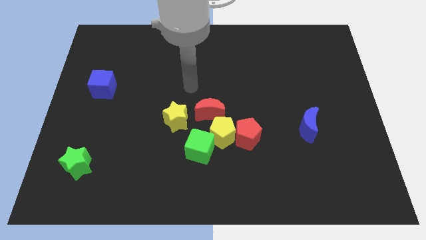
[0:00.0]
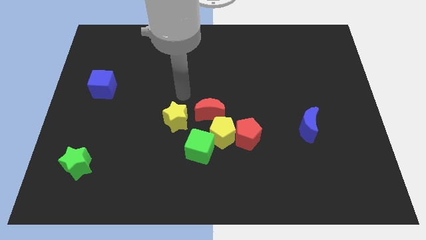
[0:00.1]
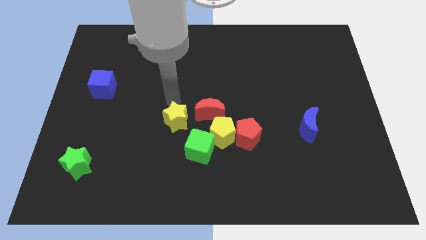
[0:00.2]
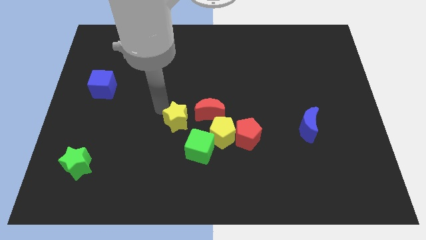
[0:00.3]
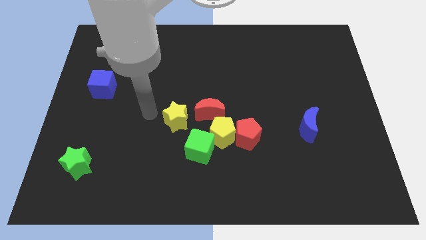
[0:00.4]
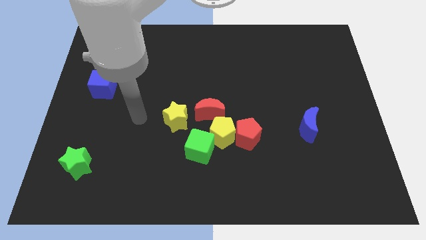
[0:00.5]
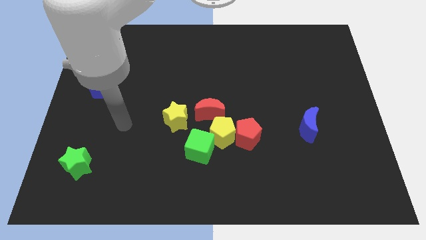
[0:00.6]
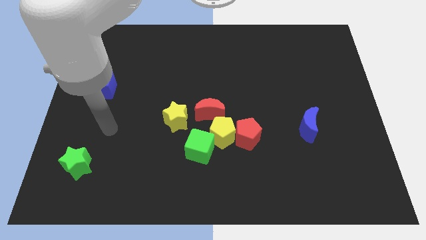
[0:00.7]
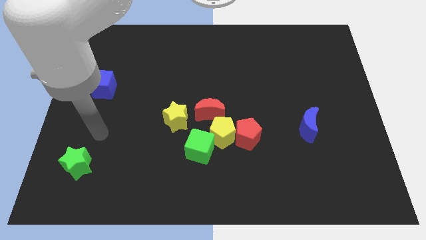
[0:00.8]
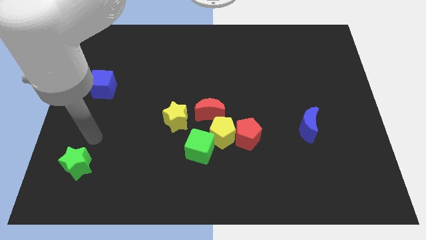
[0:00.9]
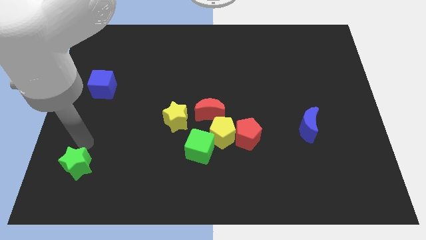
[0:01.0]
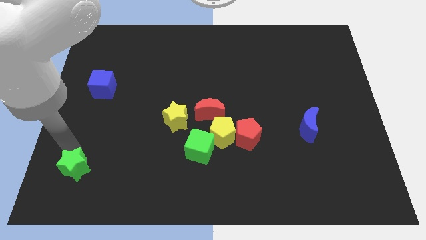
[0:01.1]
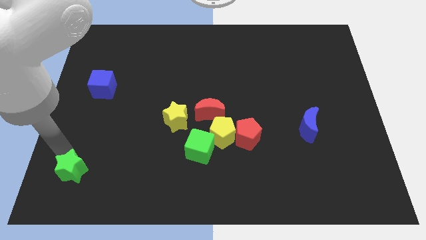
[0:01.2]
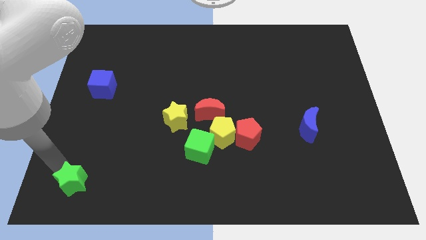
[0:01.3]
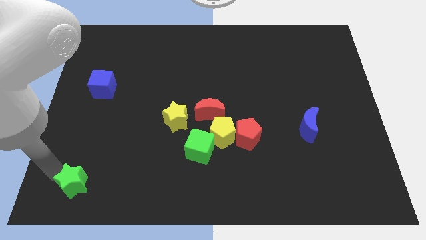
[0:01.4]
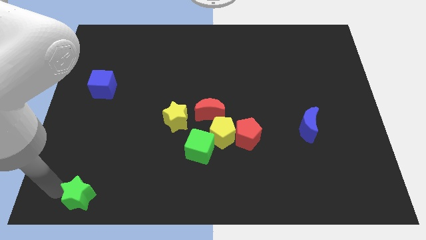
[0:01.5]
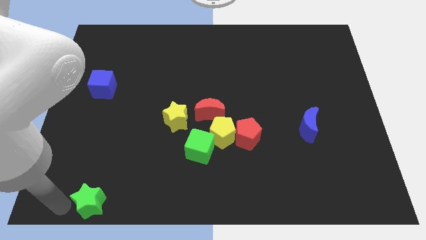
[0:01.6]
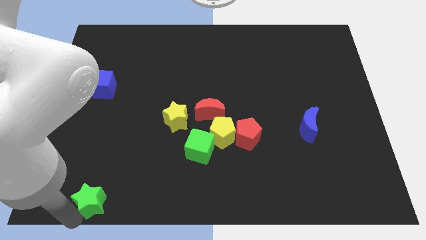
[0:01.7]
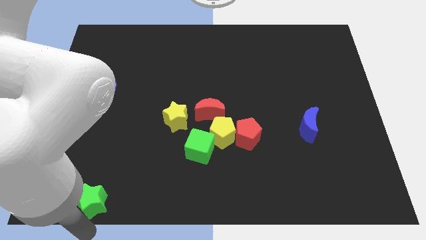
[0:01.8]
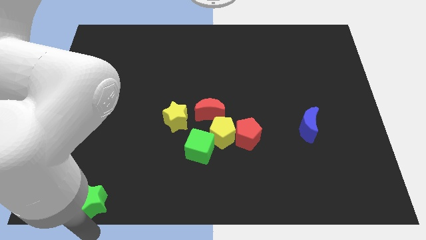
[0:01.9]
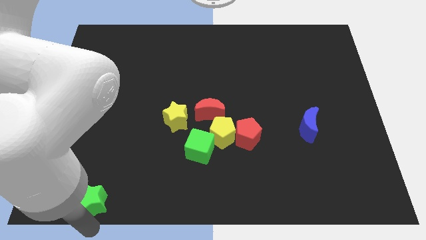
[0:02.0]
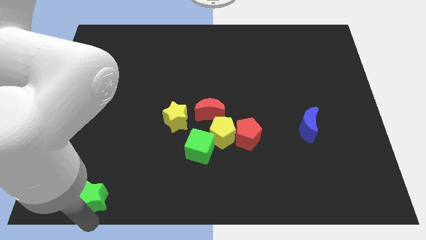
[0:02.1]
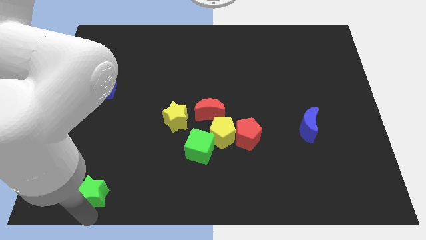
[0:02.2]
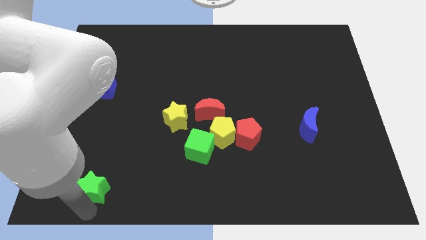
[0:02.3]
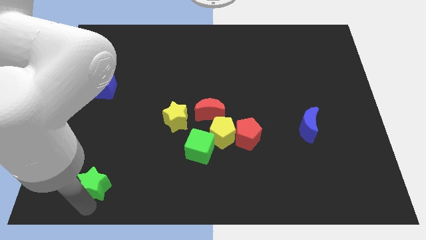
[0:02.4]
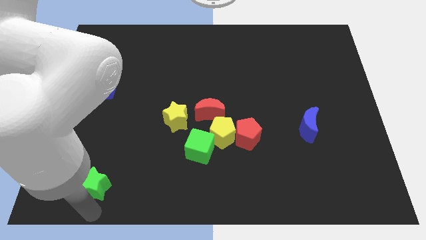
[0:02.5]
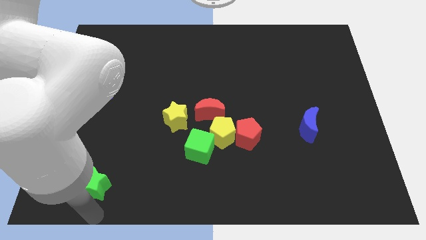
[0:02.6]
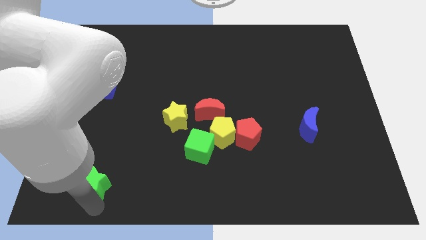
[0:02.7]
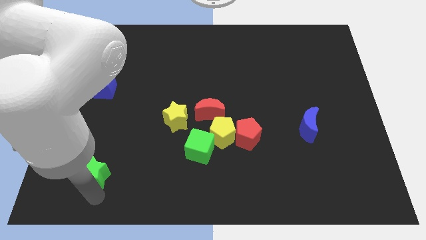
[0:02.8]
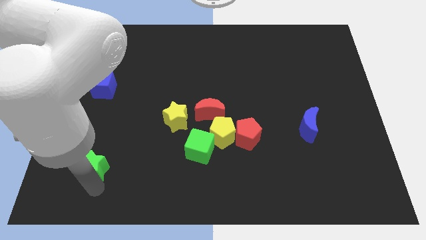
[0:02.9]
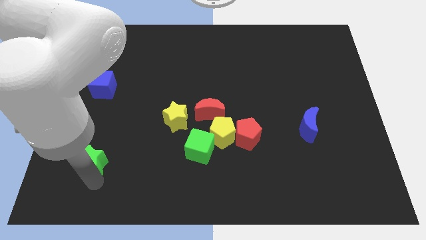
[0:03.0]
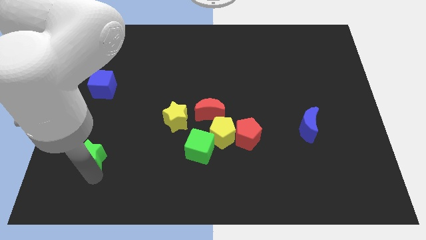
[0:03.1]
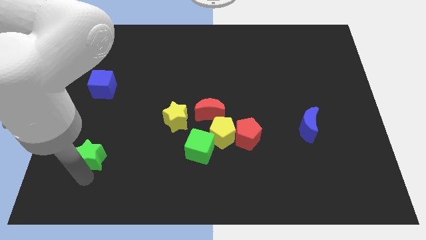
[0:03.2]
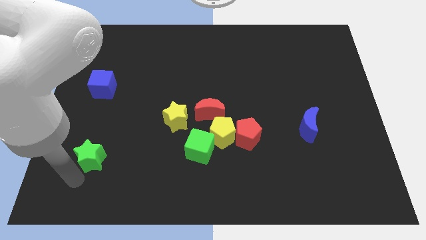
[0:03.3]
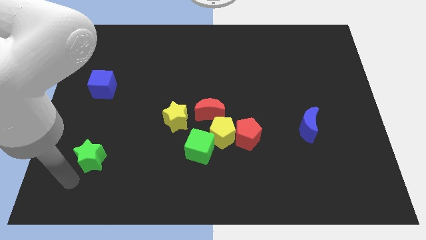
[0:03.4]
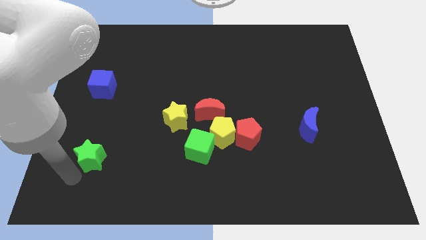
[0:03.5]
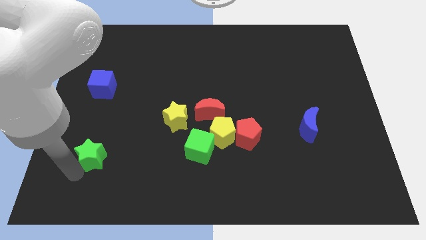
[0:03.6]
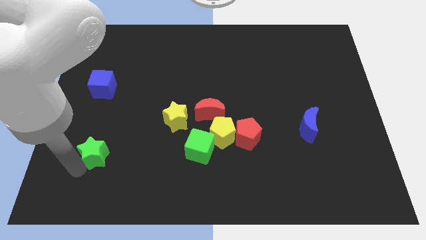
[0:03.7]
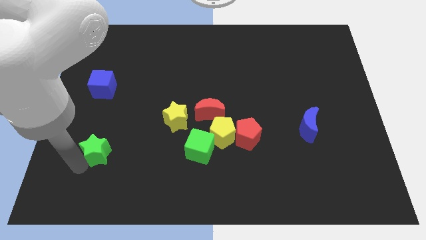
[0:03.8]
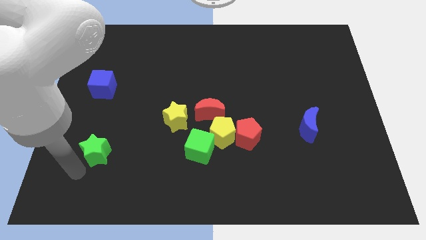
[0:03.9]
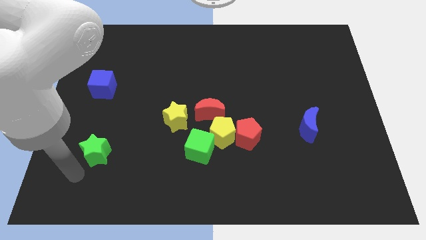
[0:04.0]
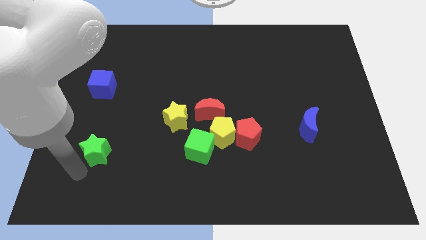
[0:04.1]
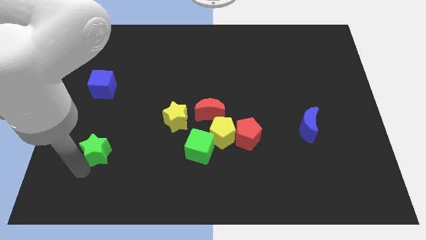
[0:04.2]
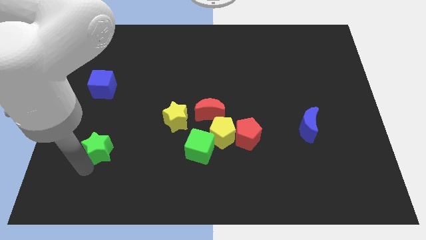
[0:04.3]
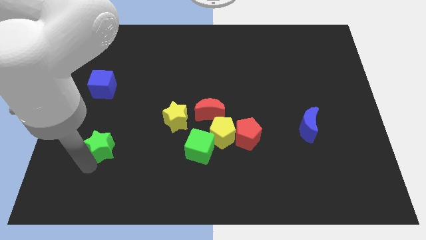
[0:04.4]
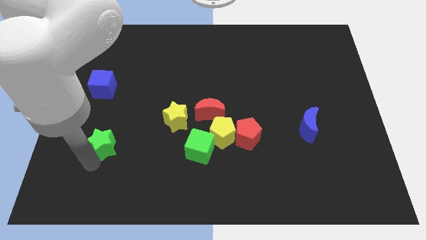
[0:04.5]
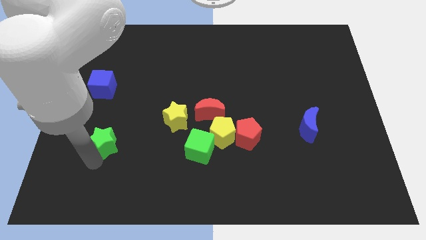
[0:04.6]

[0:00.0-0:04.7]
slightly slide the green star diagonally up and right

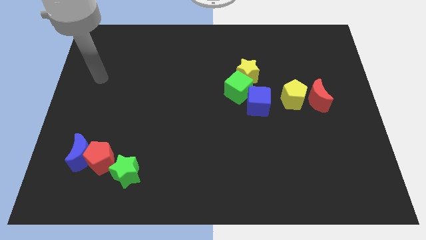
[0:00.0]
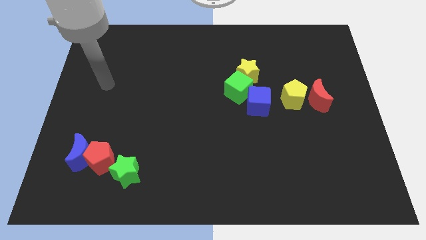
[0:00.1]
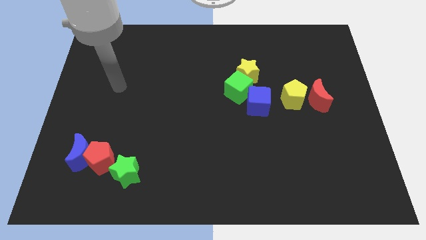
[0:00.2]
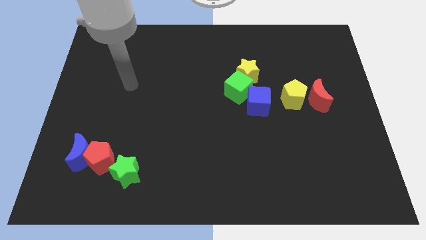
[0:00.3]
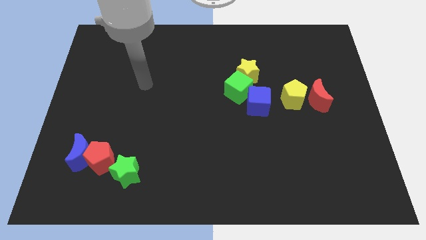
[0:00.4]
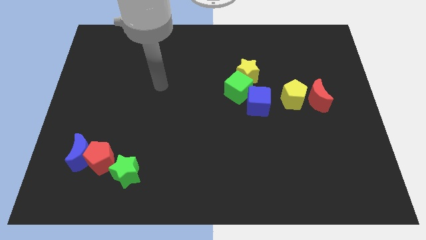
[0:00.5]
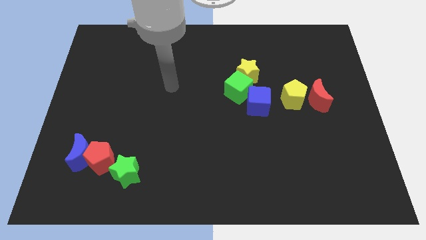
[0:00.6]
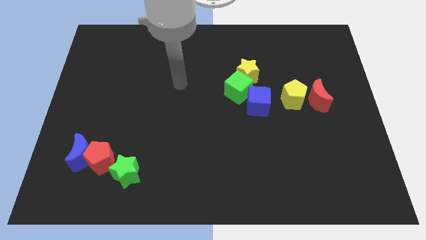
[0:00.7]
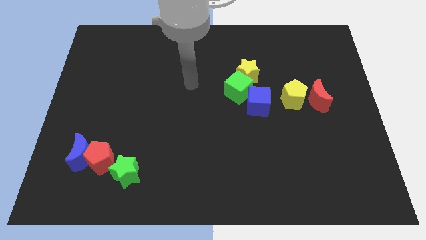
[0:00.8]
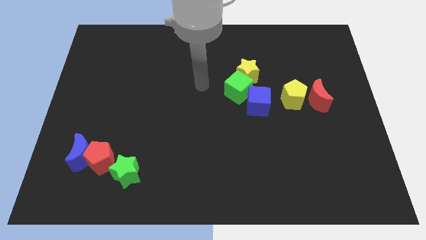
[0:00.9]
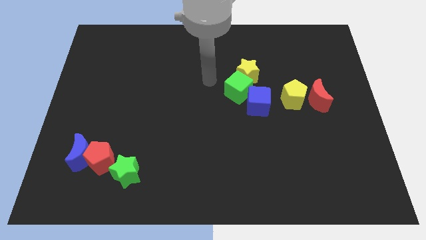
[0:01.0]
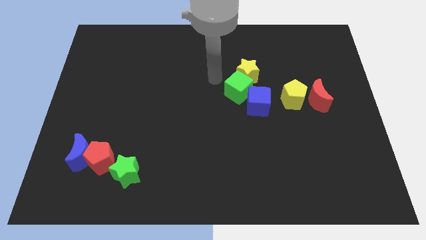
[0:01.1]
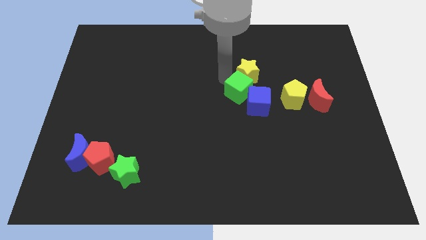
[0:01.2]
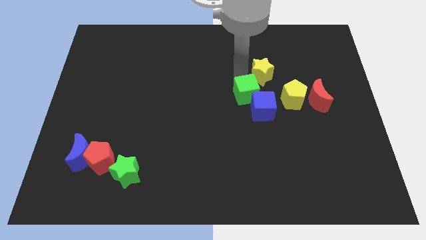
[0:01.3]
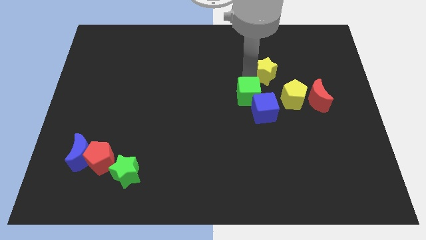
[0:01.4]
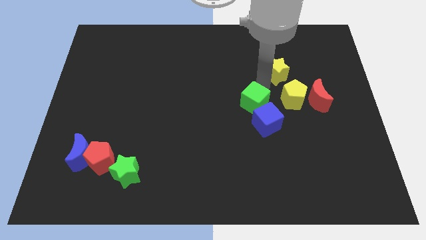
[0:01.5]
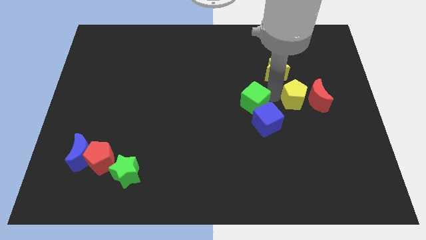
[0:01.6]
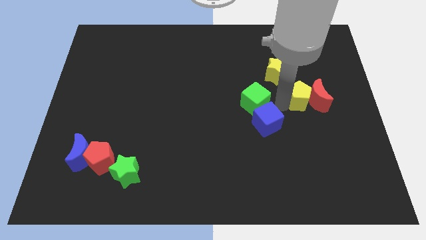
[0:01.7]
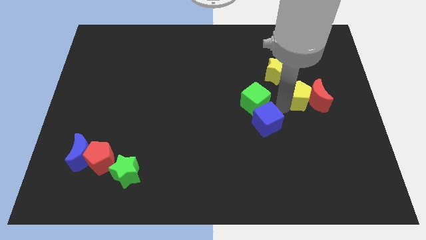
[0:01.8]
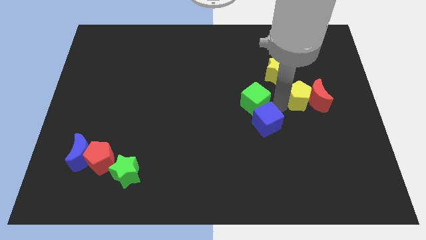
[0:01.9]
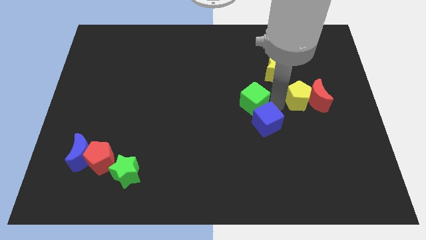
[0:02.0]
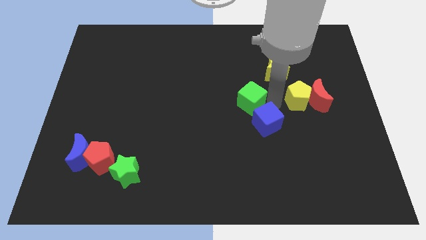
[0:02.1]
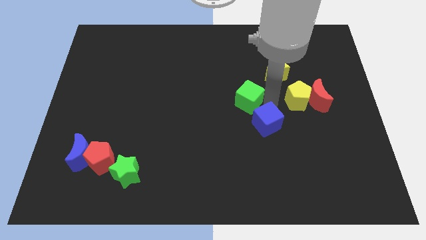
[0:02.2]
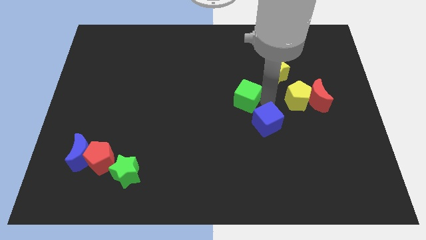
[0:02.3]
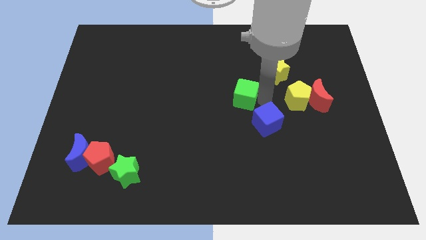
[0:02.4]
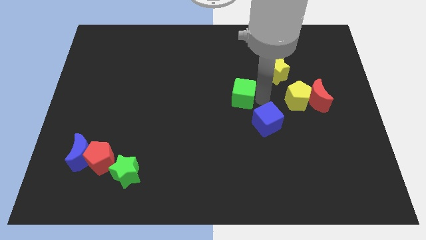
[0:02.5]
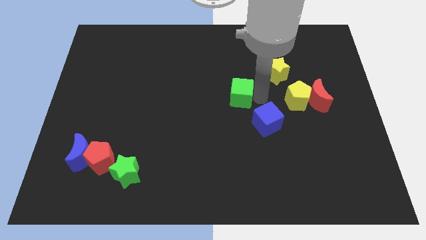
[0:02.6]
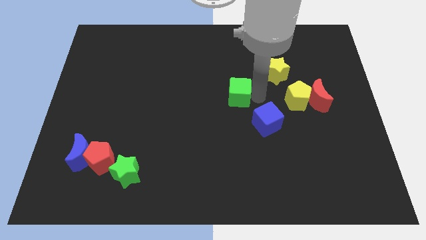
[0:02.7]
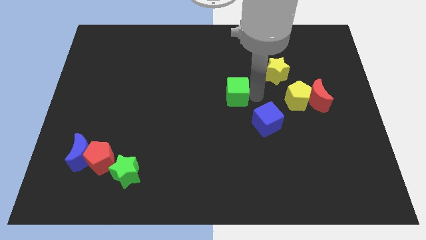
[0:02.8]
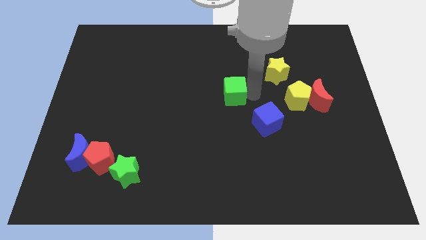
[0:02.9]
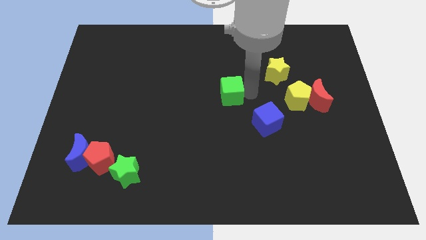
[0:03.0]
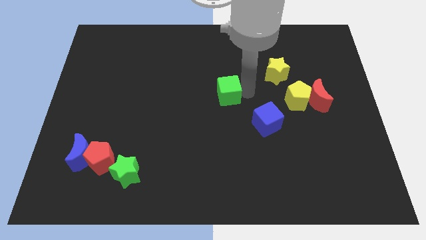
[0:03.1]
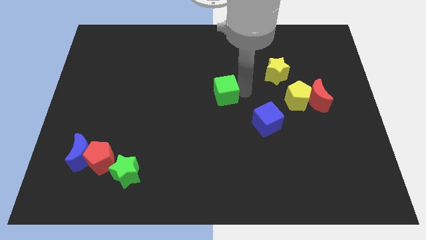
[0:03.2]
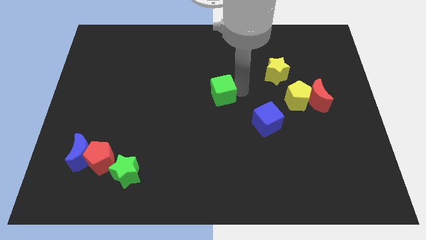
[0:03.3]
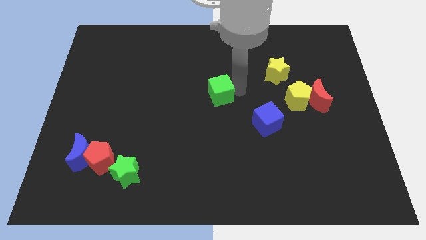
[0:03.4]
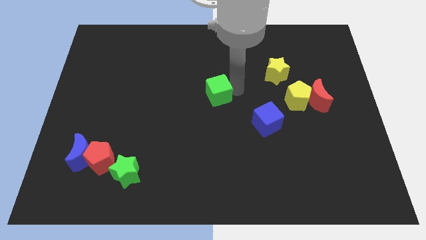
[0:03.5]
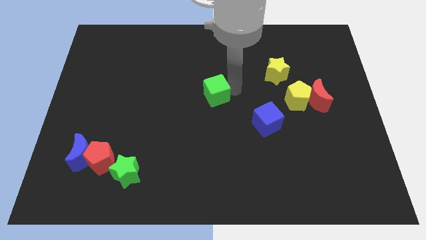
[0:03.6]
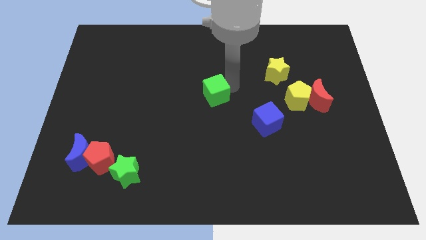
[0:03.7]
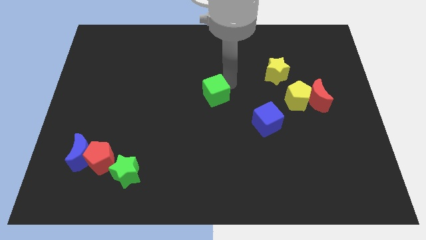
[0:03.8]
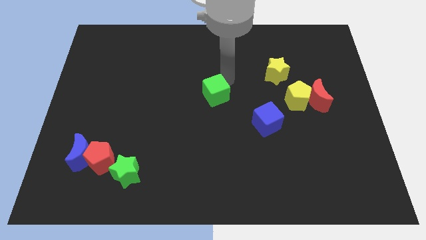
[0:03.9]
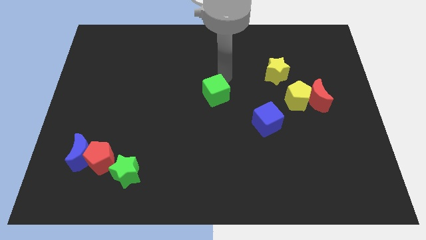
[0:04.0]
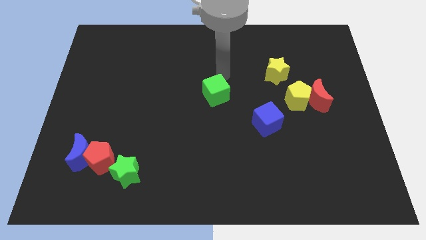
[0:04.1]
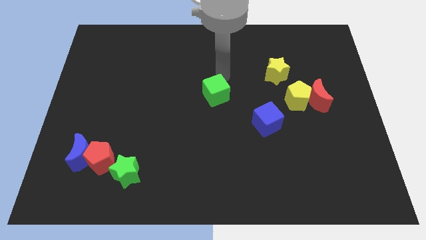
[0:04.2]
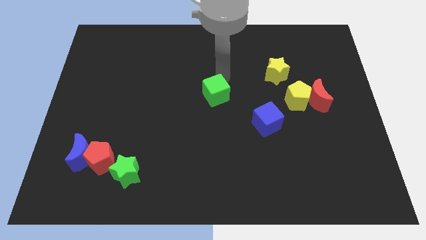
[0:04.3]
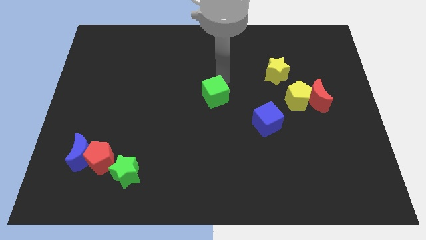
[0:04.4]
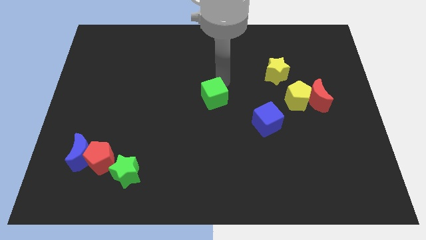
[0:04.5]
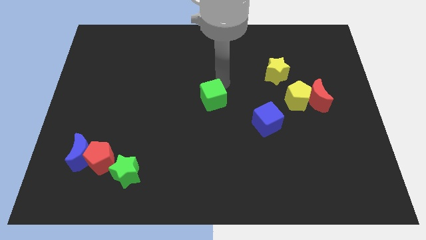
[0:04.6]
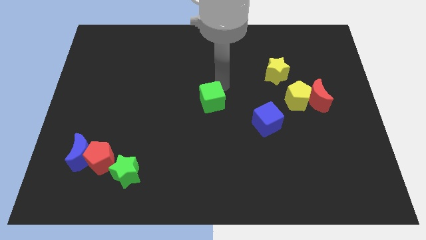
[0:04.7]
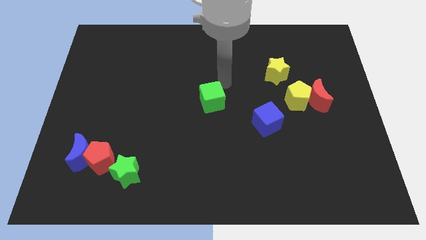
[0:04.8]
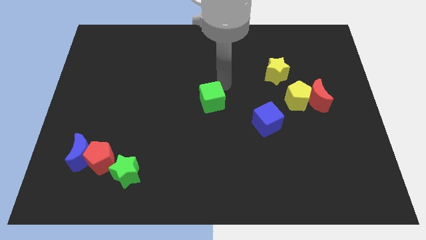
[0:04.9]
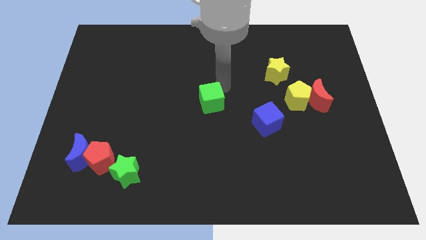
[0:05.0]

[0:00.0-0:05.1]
move the green cube somewhat down and then to the left
